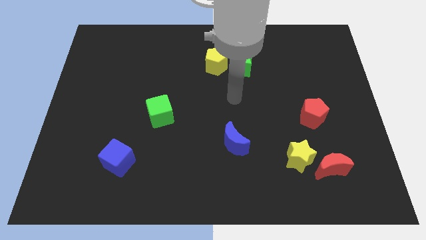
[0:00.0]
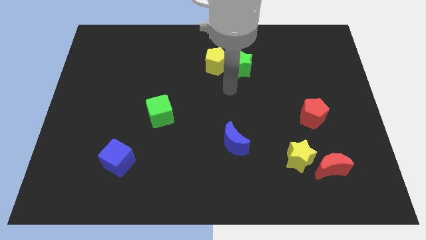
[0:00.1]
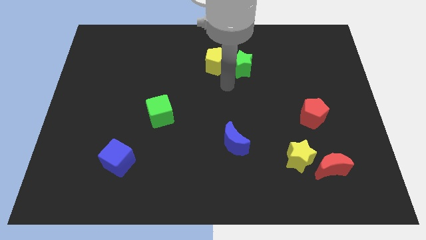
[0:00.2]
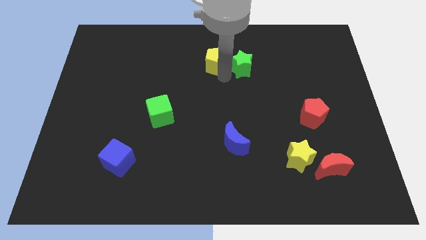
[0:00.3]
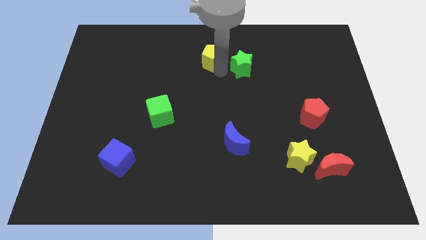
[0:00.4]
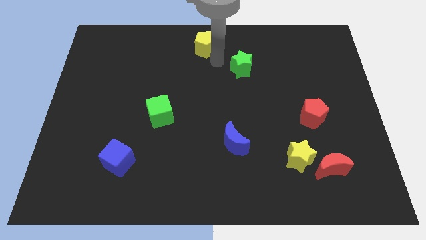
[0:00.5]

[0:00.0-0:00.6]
separate the green star from the yellow pentagon

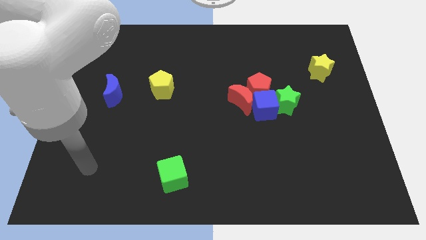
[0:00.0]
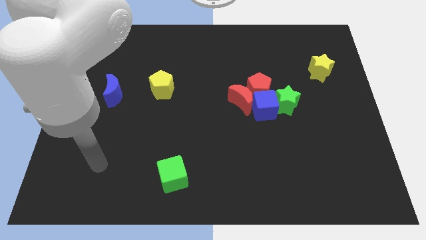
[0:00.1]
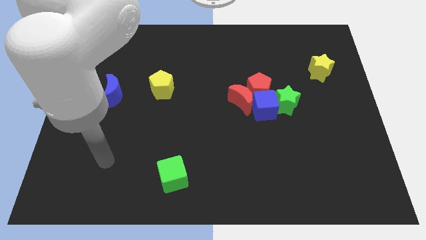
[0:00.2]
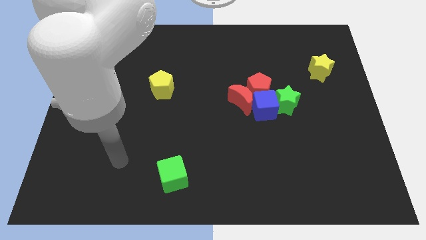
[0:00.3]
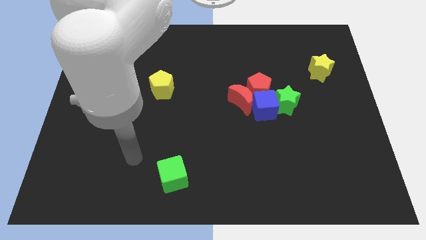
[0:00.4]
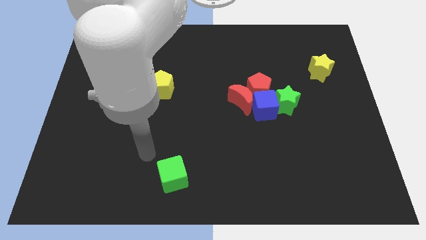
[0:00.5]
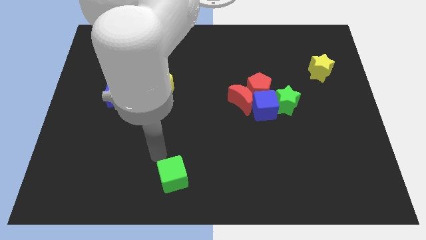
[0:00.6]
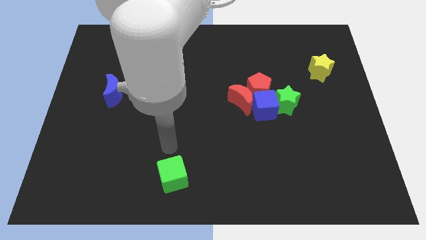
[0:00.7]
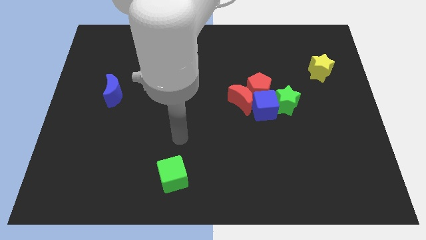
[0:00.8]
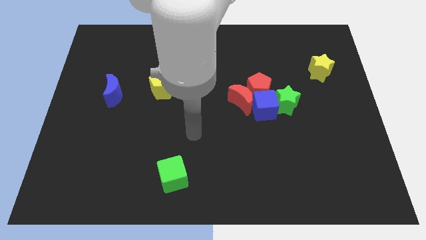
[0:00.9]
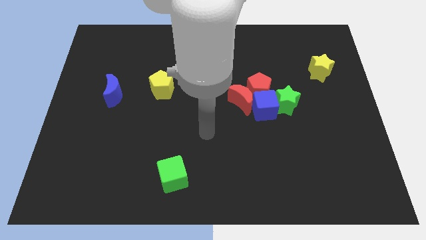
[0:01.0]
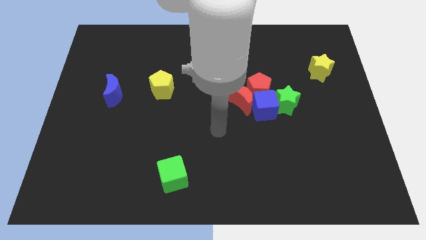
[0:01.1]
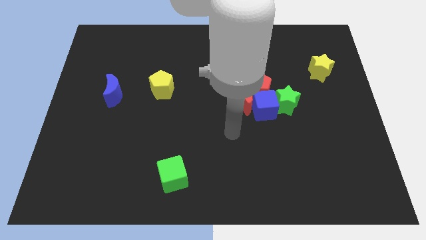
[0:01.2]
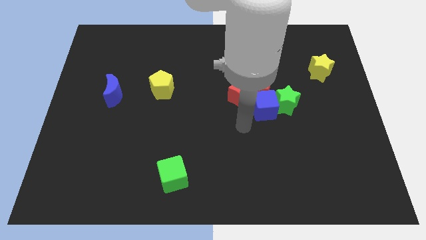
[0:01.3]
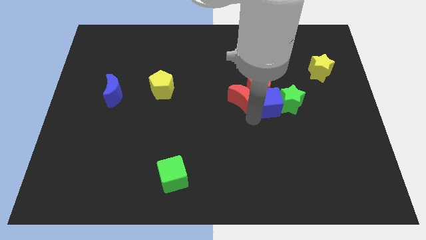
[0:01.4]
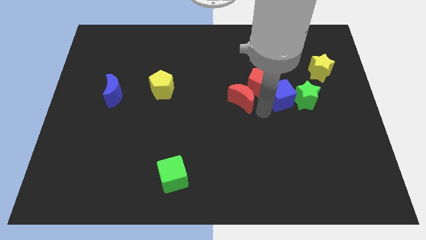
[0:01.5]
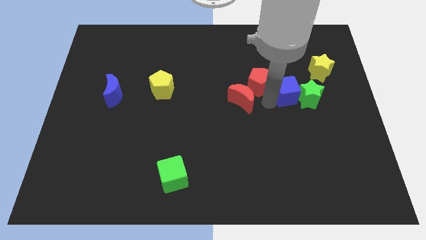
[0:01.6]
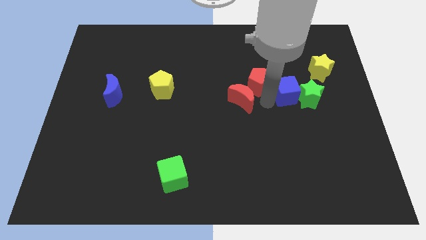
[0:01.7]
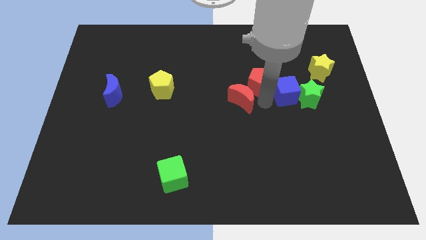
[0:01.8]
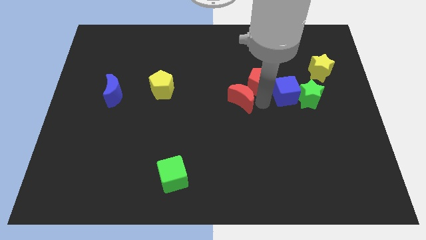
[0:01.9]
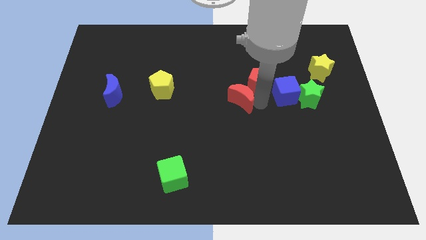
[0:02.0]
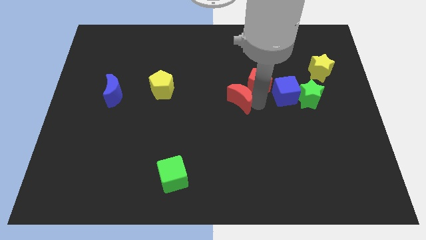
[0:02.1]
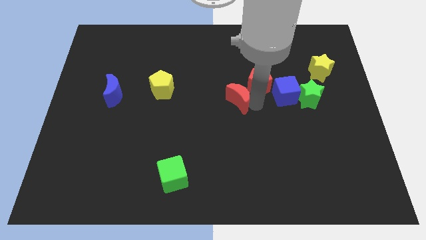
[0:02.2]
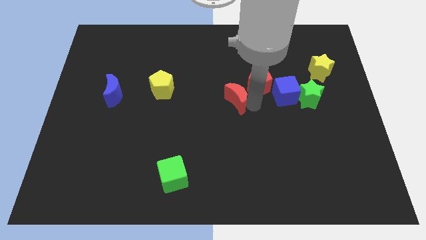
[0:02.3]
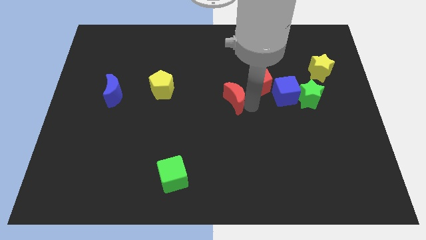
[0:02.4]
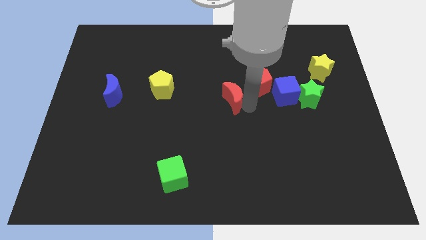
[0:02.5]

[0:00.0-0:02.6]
move the red moon away from the red pentagon and blue cube

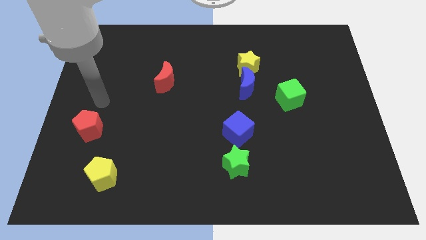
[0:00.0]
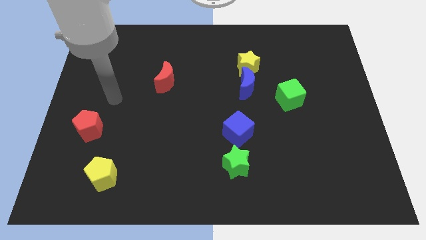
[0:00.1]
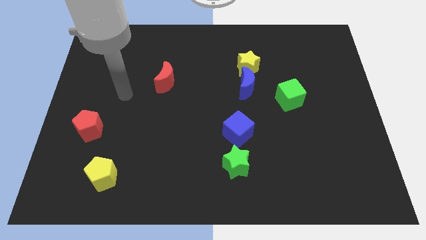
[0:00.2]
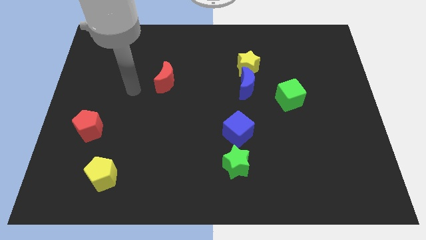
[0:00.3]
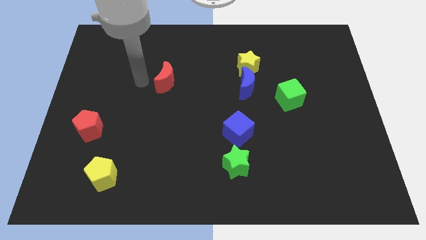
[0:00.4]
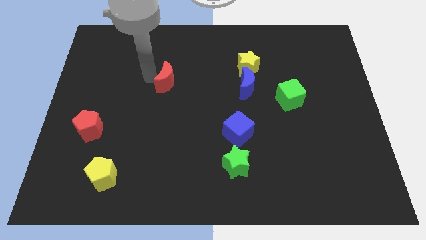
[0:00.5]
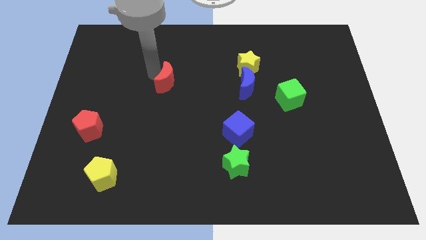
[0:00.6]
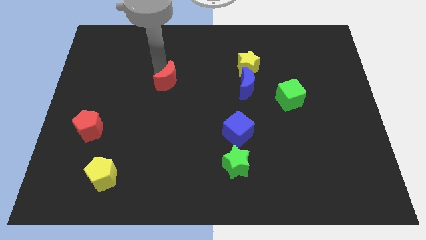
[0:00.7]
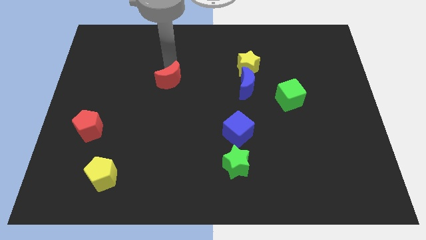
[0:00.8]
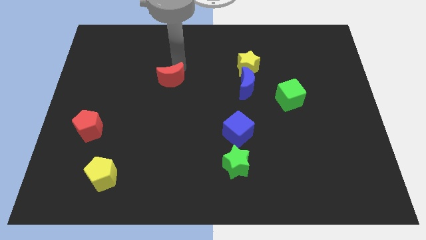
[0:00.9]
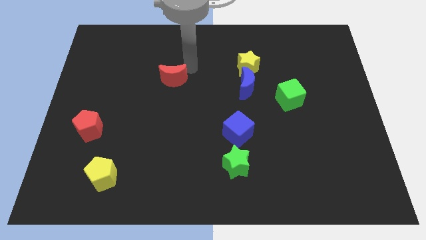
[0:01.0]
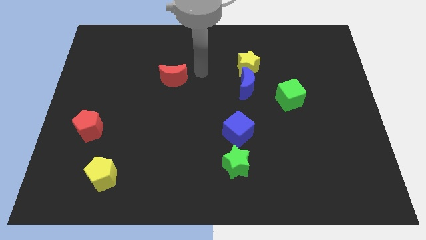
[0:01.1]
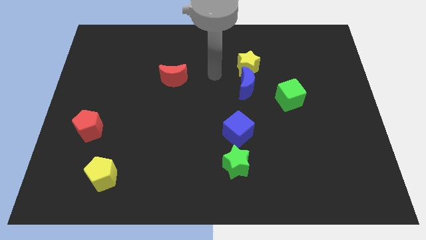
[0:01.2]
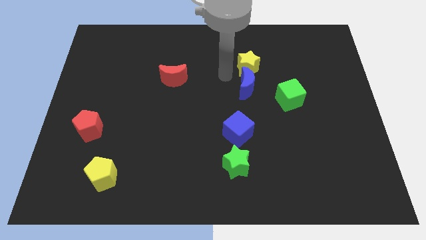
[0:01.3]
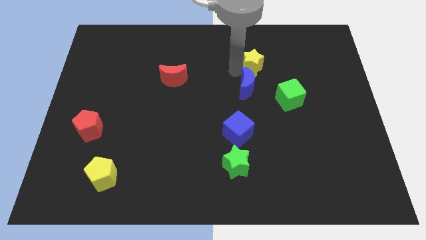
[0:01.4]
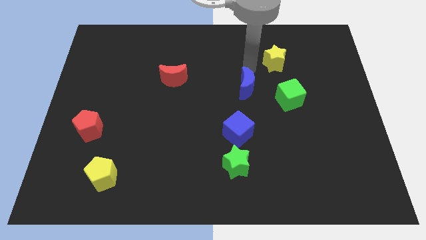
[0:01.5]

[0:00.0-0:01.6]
separate the blue moon from the yellow star

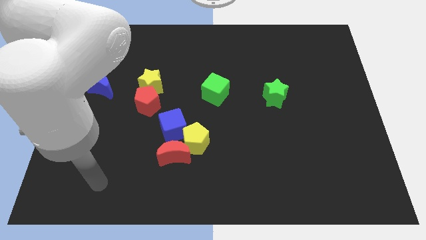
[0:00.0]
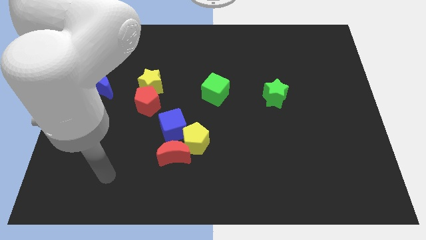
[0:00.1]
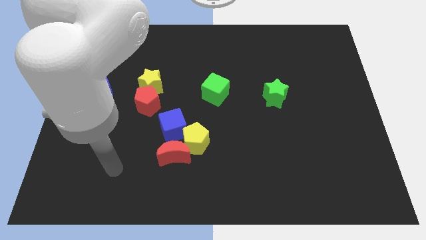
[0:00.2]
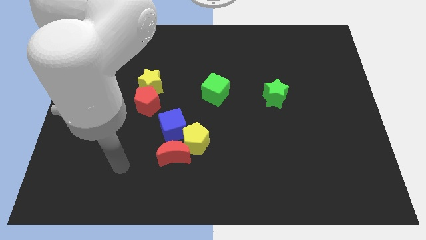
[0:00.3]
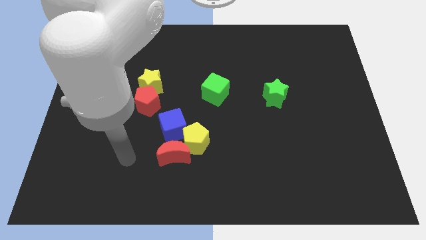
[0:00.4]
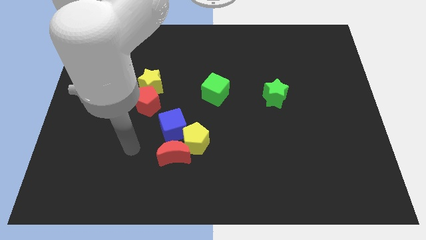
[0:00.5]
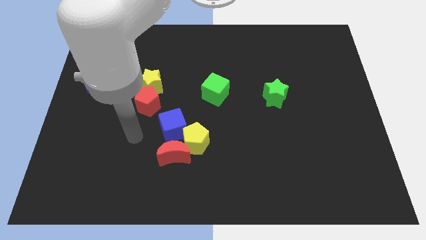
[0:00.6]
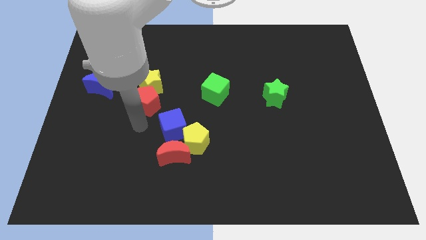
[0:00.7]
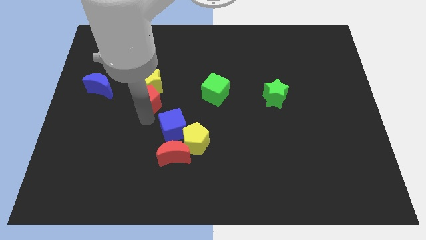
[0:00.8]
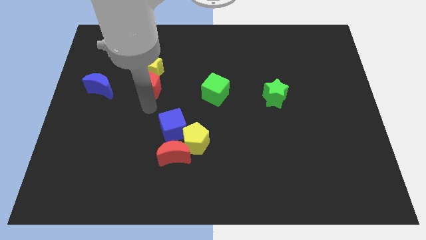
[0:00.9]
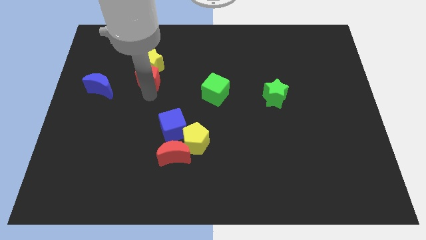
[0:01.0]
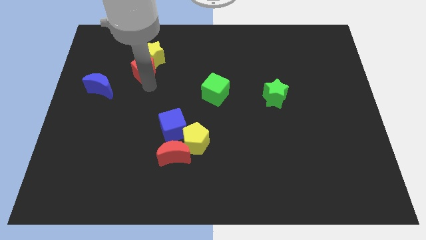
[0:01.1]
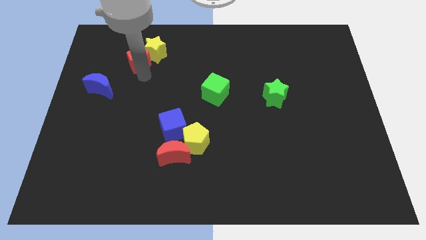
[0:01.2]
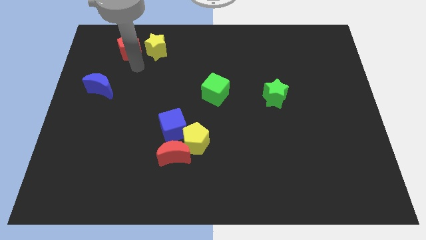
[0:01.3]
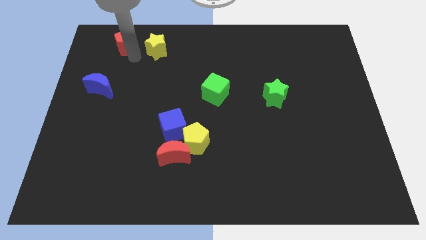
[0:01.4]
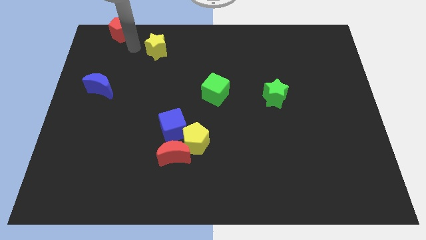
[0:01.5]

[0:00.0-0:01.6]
pull the yellow star apart from the red pentagon

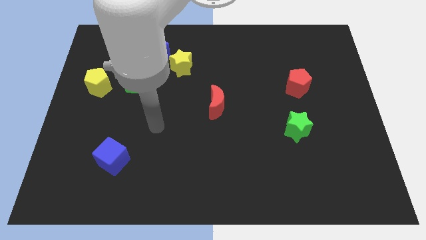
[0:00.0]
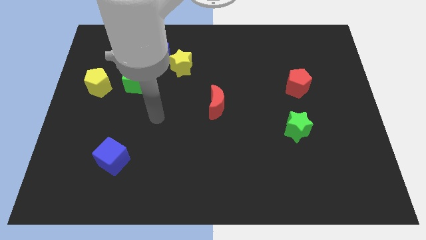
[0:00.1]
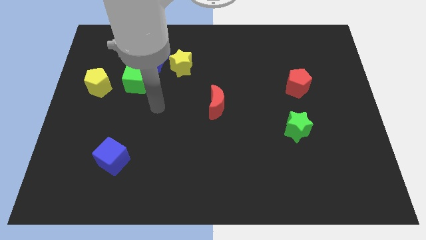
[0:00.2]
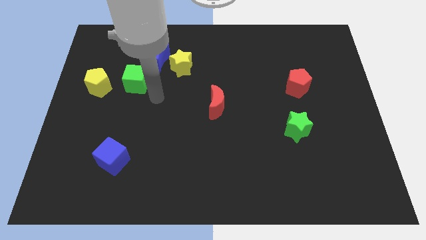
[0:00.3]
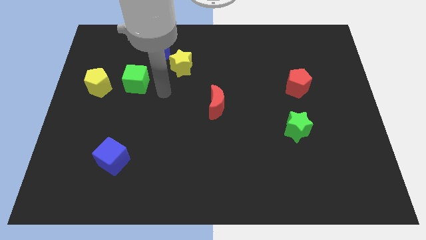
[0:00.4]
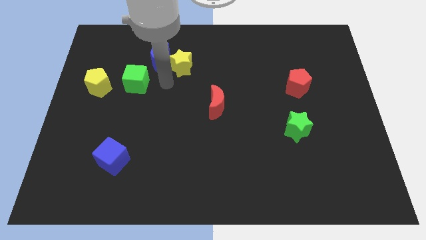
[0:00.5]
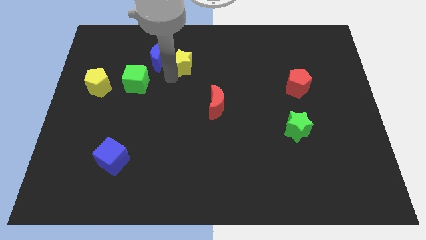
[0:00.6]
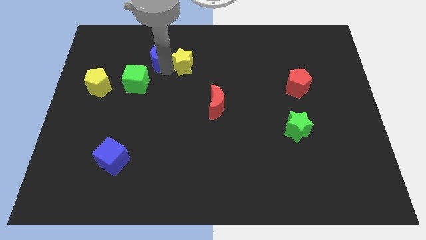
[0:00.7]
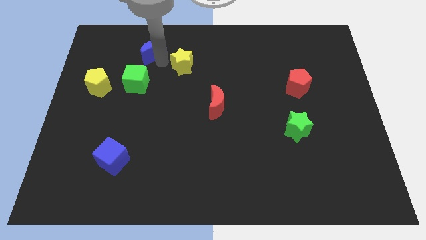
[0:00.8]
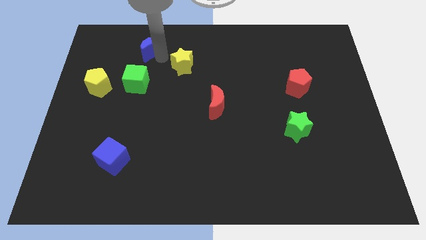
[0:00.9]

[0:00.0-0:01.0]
move the yellow star away from the blue moon

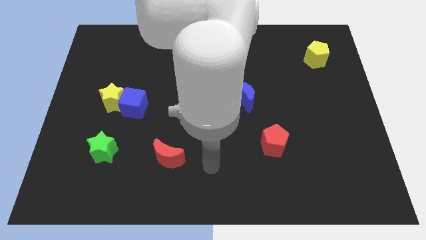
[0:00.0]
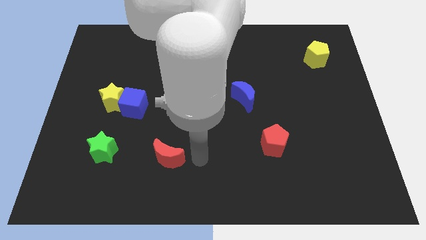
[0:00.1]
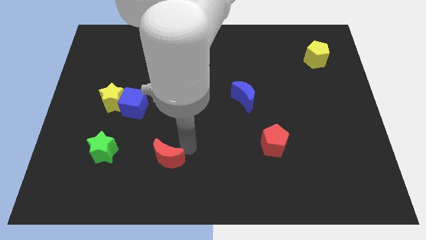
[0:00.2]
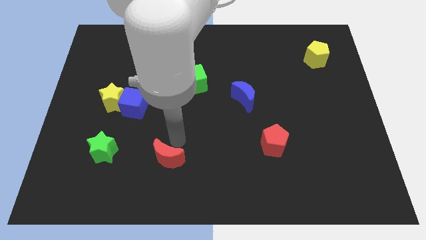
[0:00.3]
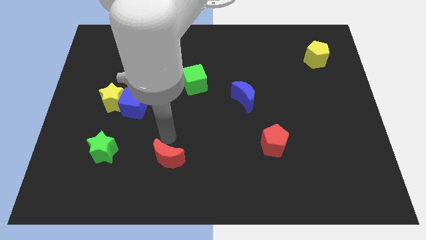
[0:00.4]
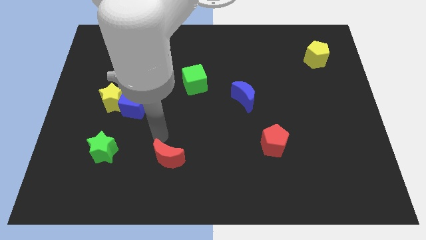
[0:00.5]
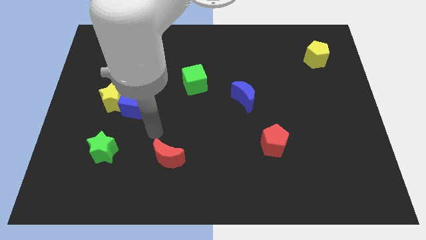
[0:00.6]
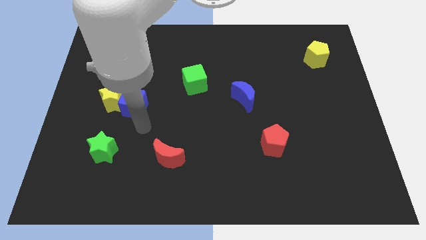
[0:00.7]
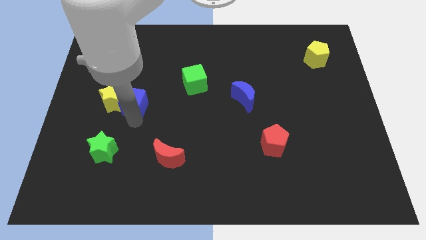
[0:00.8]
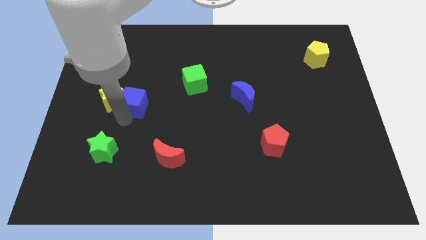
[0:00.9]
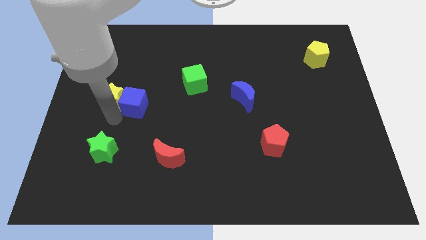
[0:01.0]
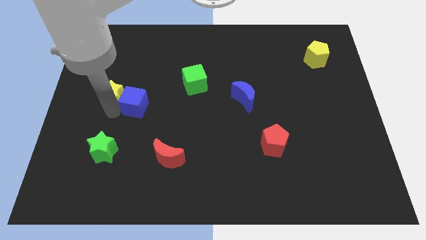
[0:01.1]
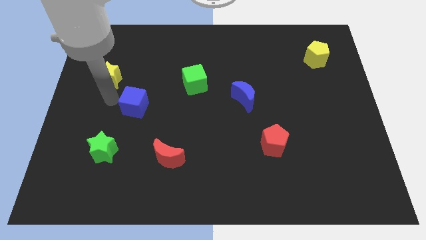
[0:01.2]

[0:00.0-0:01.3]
move the blue cube away from the yellow star

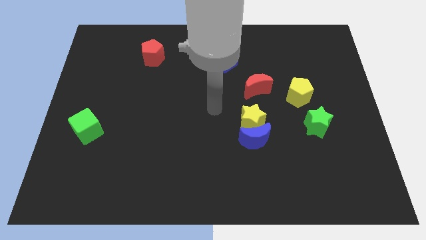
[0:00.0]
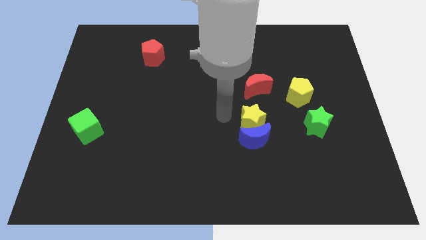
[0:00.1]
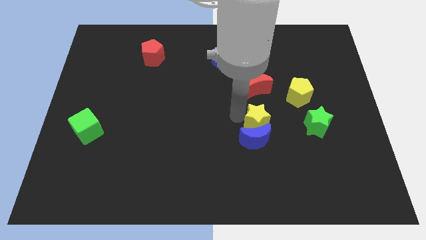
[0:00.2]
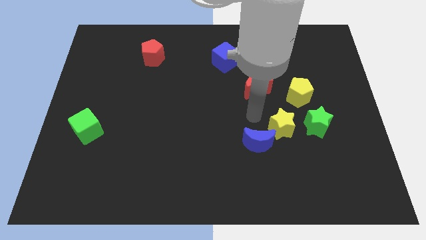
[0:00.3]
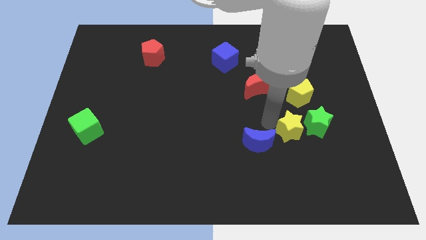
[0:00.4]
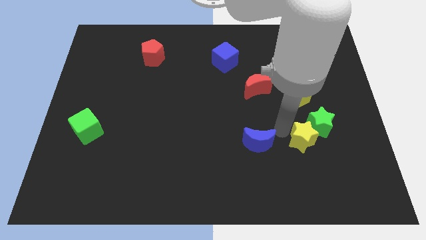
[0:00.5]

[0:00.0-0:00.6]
pull the blue moon apart from the yellow star

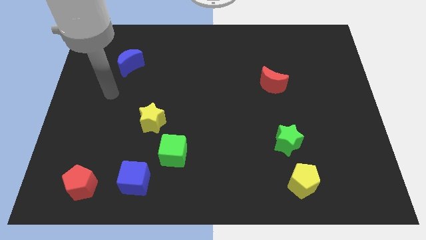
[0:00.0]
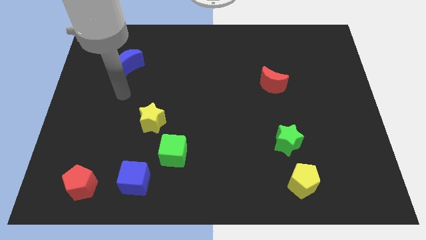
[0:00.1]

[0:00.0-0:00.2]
move the yellow star away from the green cube
